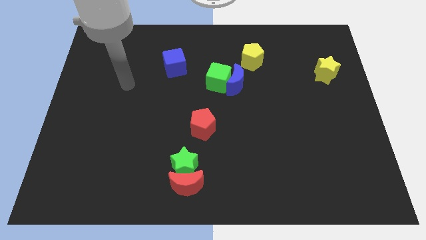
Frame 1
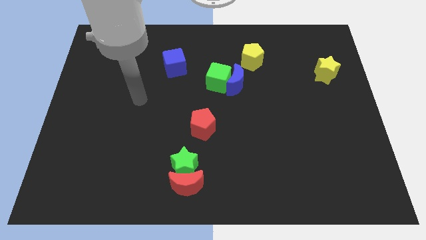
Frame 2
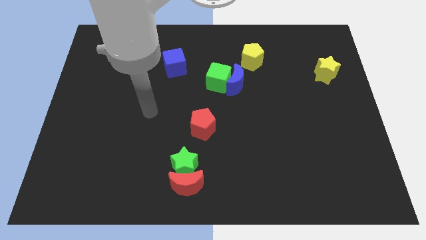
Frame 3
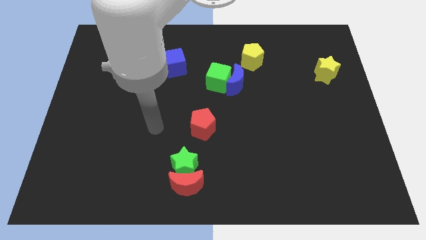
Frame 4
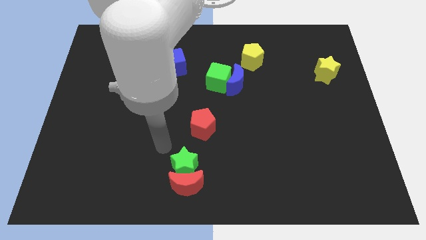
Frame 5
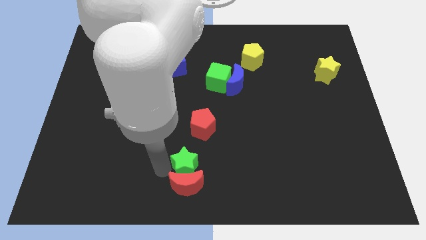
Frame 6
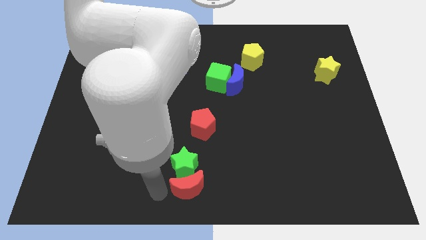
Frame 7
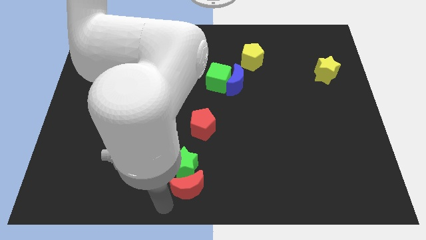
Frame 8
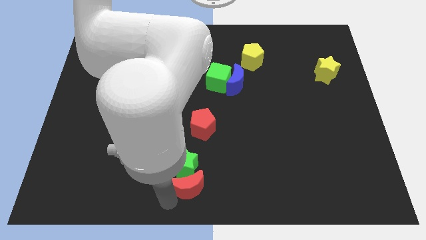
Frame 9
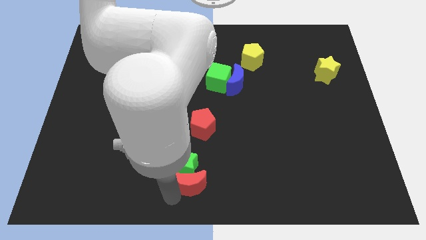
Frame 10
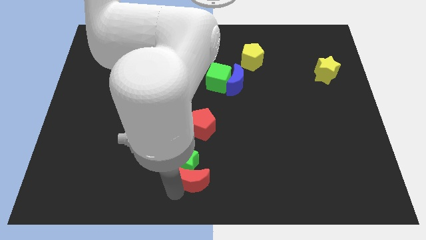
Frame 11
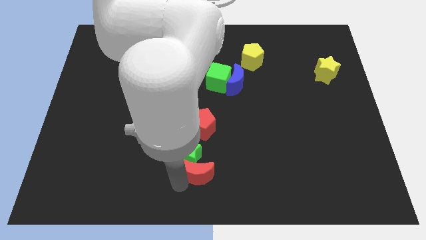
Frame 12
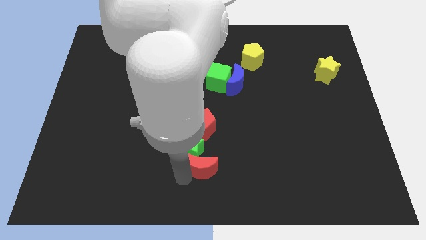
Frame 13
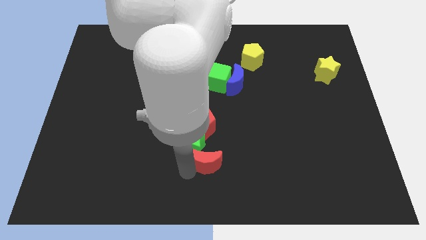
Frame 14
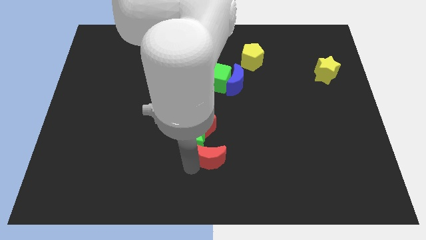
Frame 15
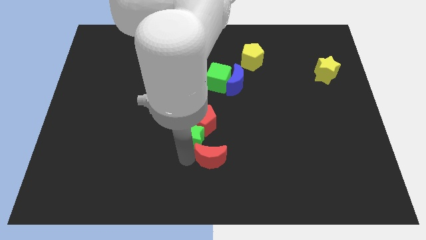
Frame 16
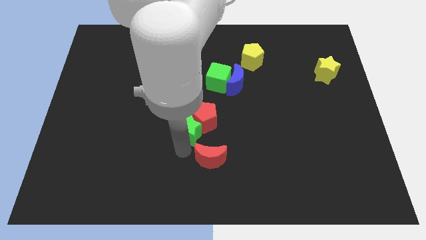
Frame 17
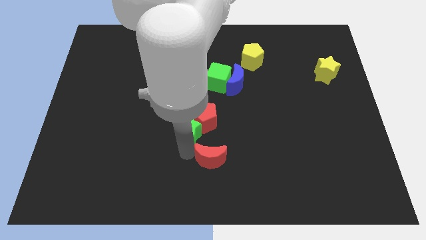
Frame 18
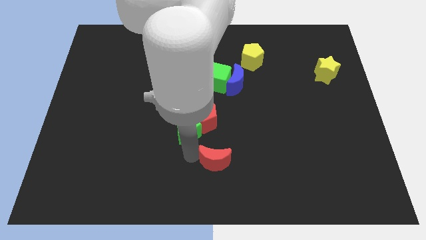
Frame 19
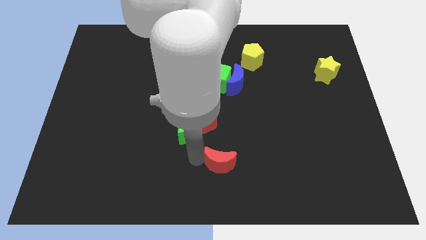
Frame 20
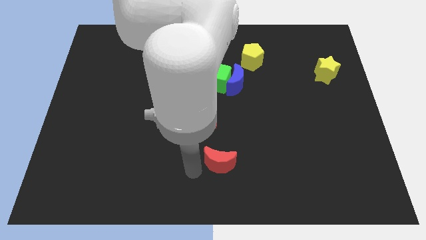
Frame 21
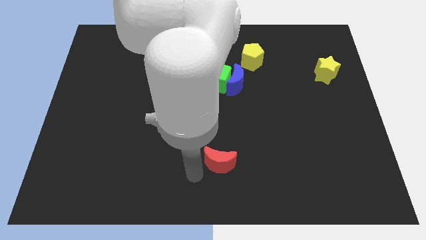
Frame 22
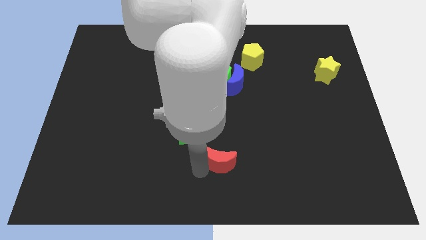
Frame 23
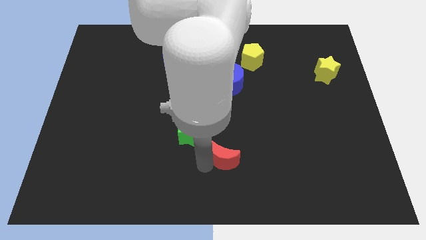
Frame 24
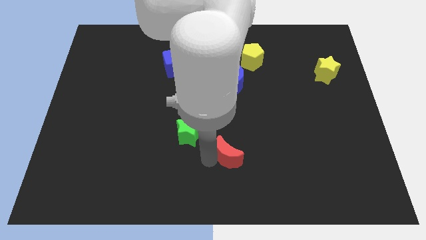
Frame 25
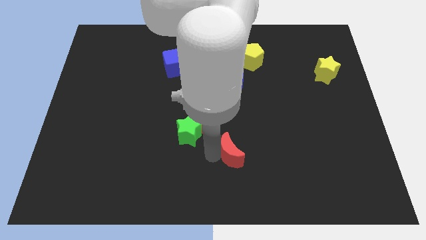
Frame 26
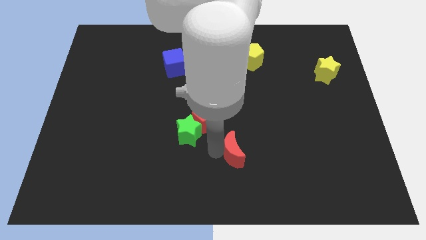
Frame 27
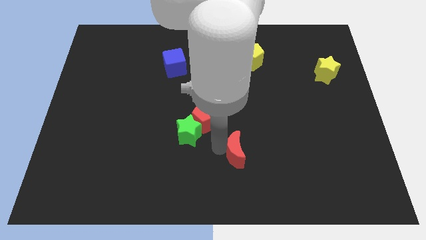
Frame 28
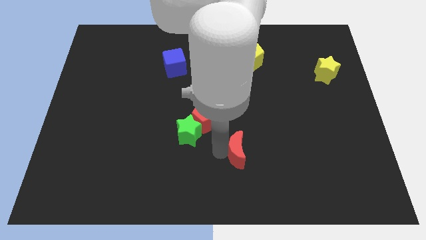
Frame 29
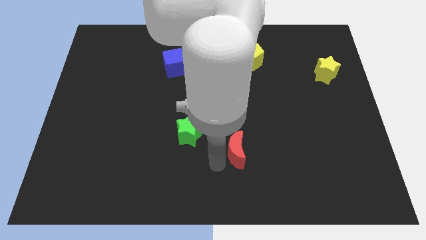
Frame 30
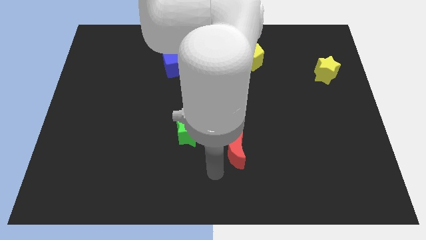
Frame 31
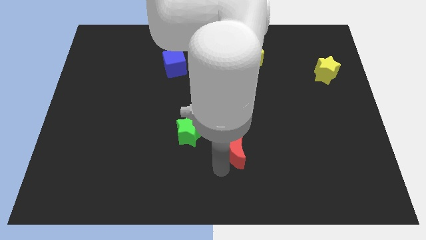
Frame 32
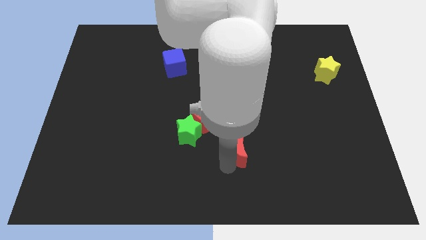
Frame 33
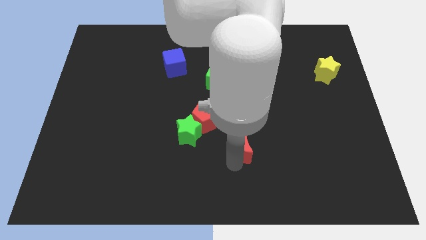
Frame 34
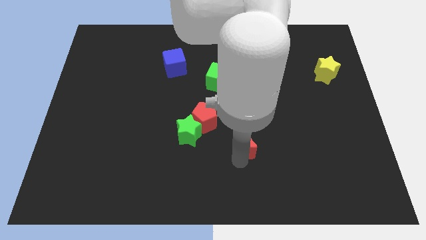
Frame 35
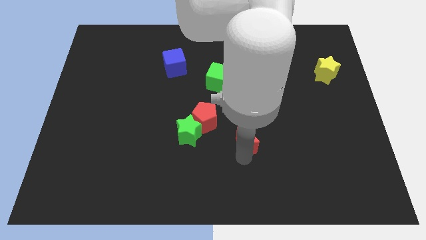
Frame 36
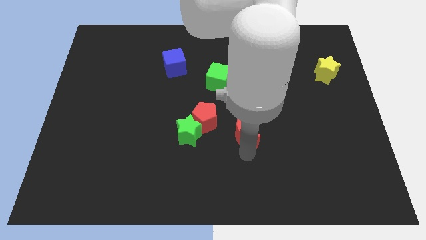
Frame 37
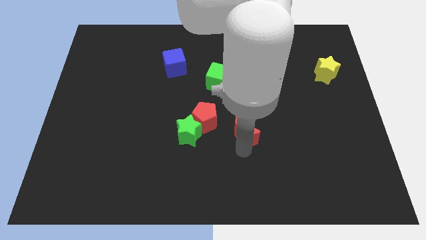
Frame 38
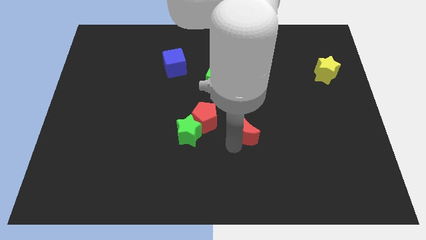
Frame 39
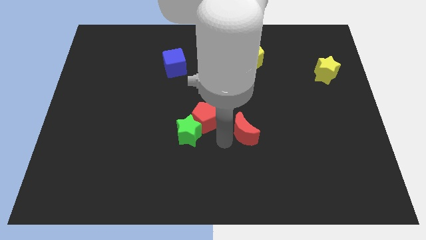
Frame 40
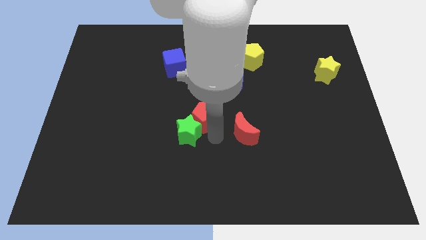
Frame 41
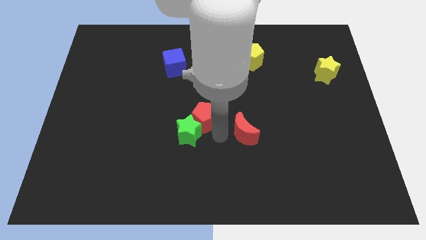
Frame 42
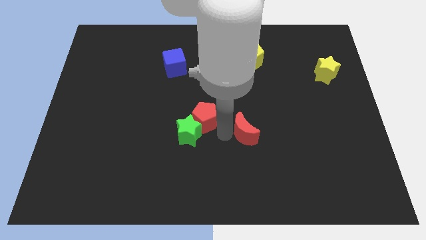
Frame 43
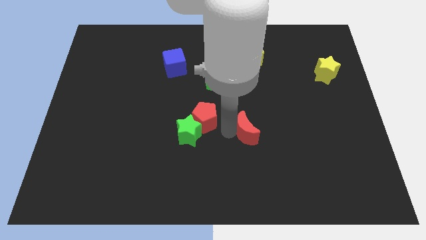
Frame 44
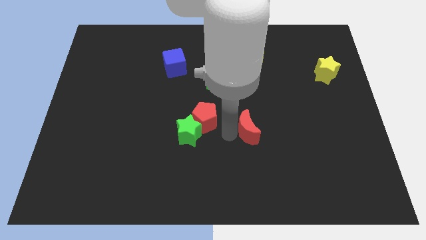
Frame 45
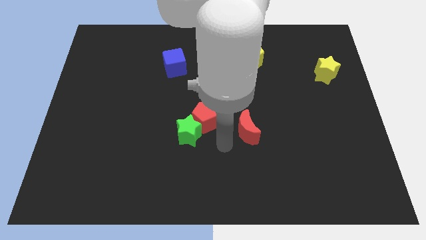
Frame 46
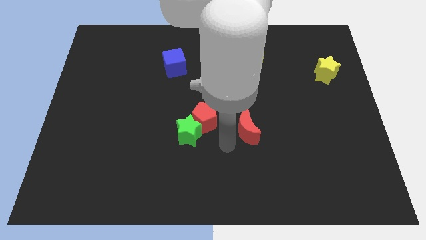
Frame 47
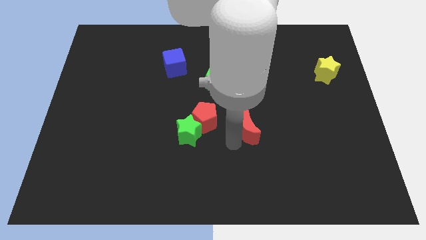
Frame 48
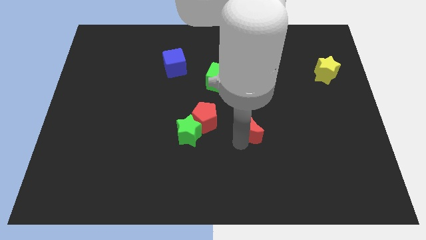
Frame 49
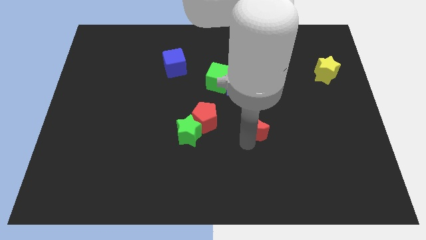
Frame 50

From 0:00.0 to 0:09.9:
move the red moon diagonally upwards and to the right

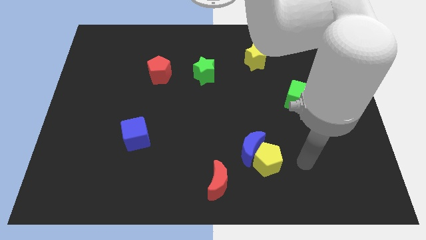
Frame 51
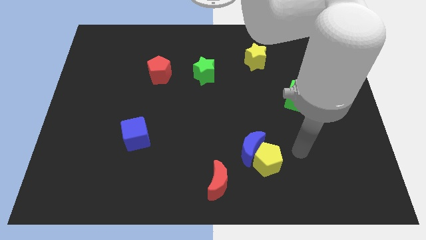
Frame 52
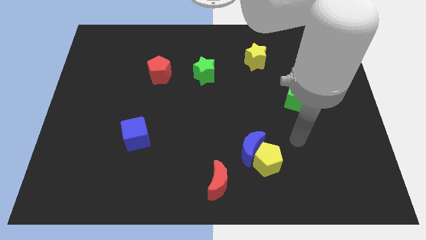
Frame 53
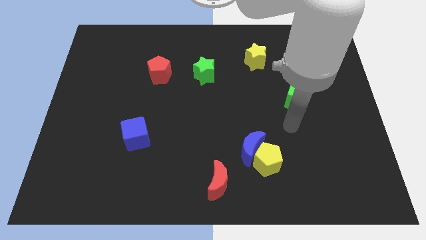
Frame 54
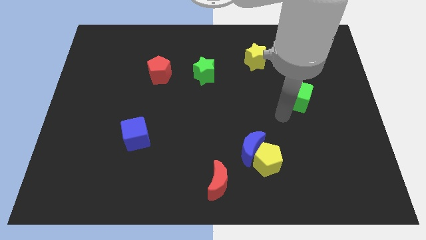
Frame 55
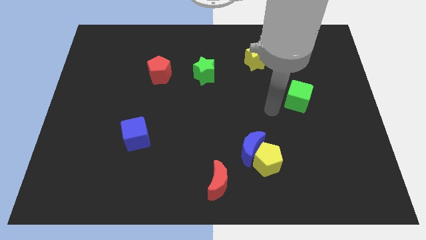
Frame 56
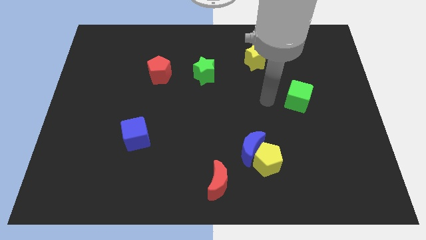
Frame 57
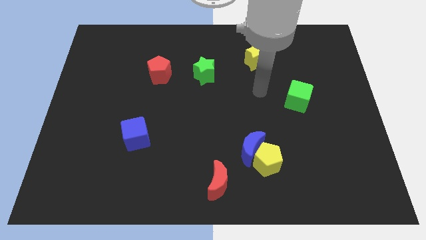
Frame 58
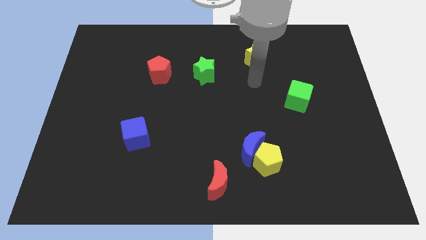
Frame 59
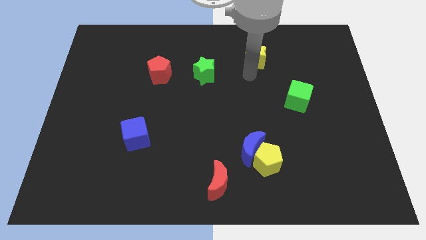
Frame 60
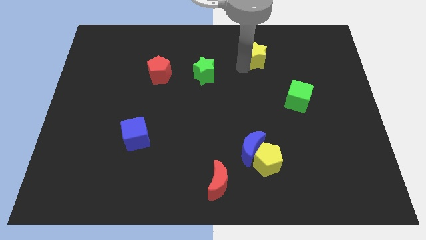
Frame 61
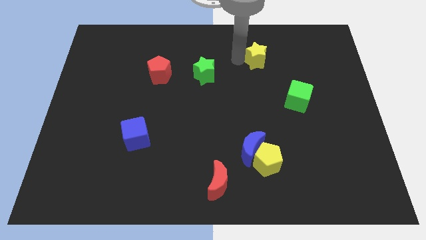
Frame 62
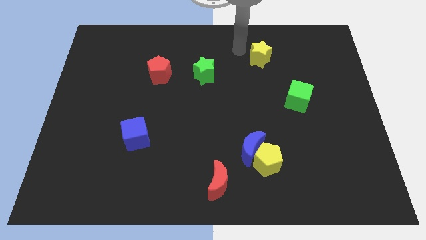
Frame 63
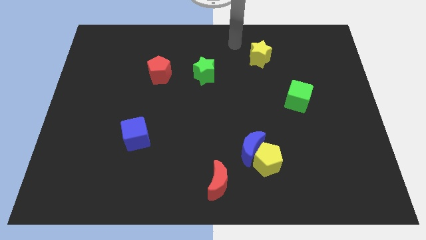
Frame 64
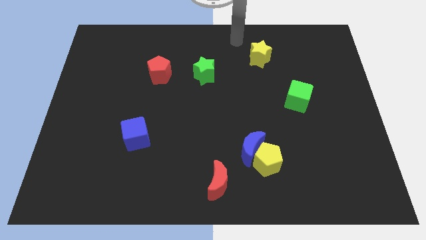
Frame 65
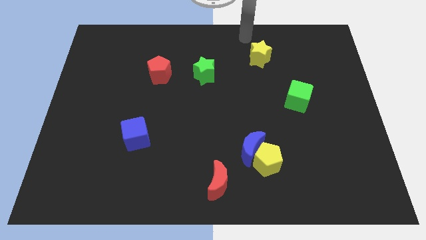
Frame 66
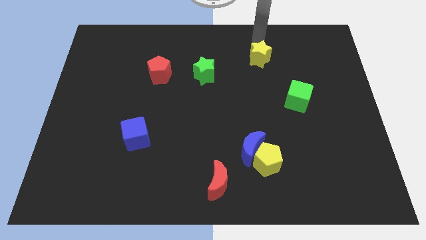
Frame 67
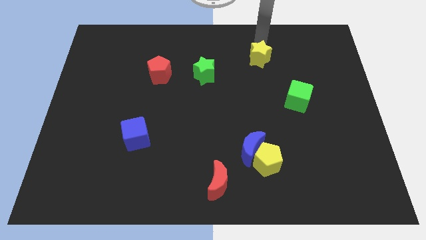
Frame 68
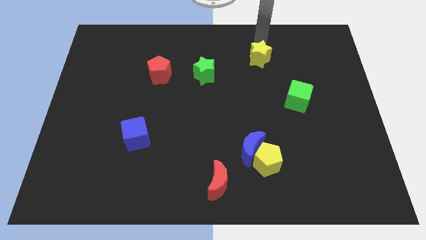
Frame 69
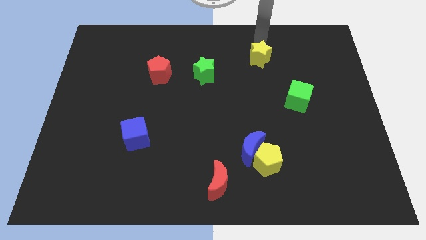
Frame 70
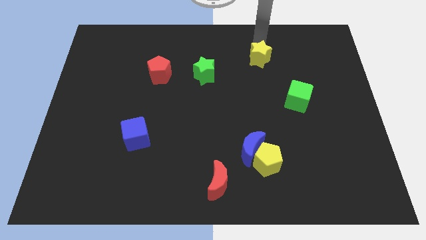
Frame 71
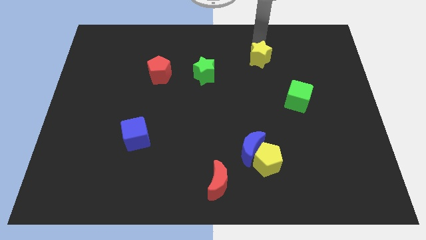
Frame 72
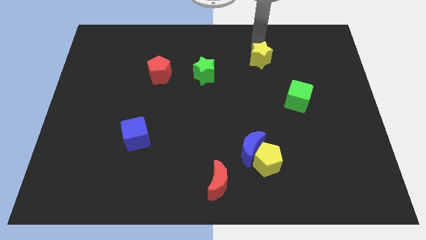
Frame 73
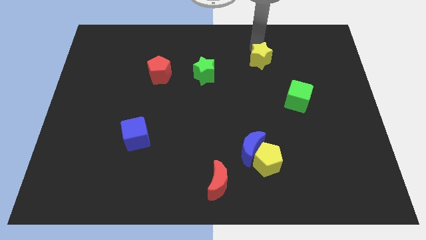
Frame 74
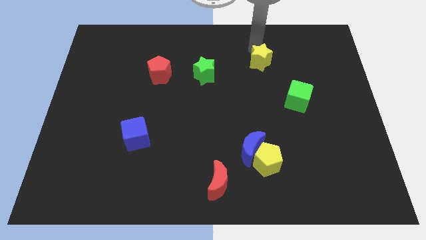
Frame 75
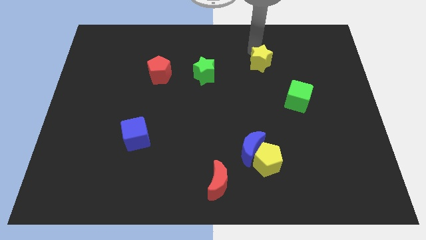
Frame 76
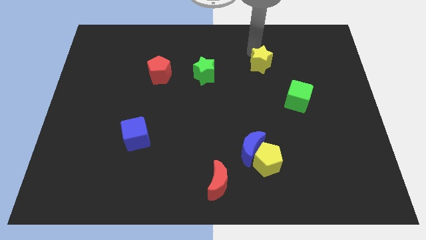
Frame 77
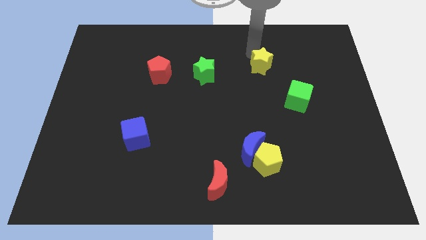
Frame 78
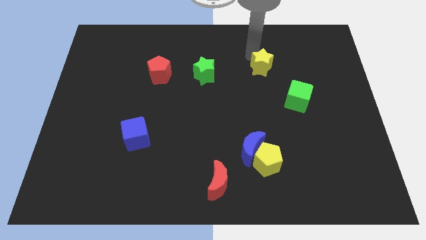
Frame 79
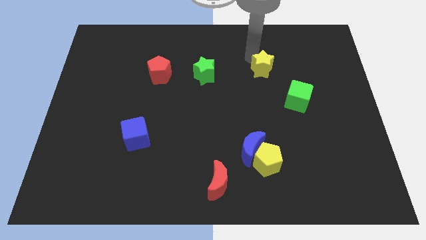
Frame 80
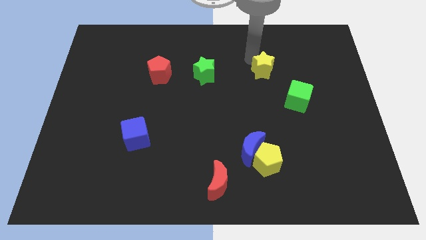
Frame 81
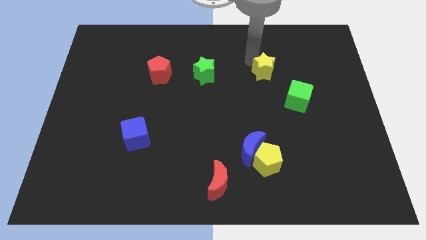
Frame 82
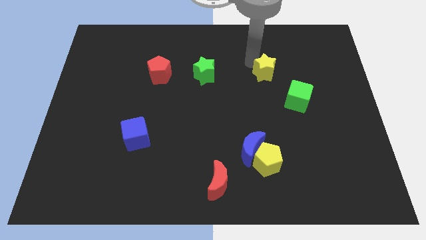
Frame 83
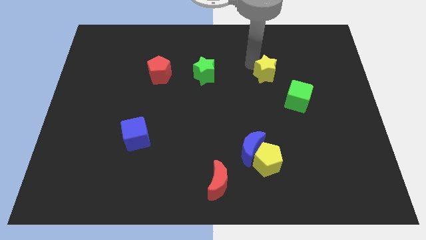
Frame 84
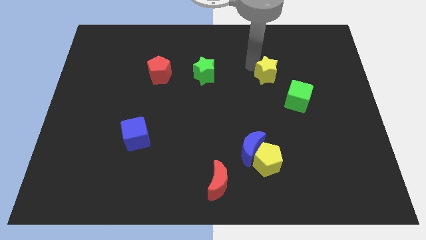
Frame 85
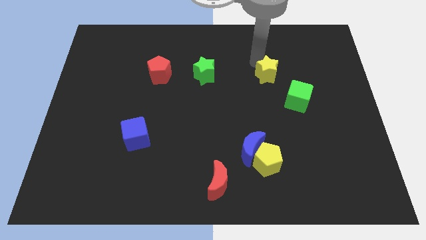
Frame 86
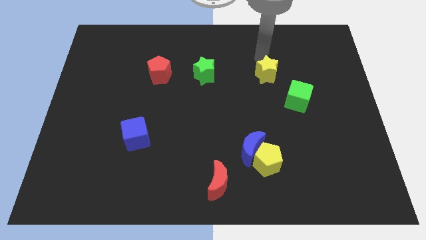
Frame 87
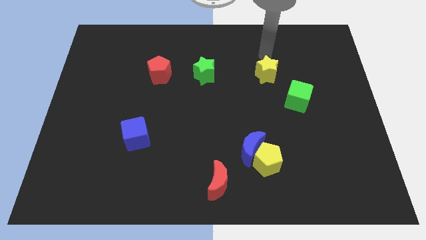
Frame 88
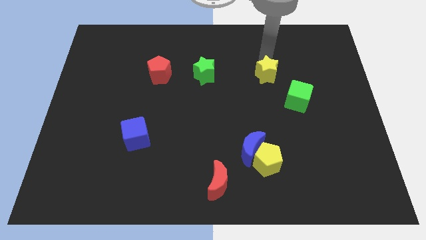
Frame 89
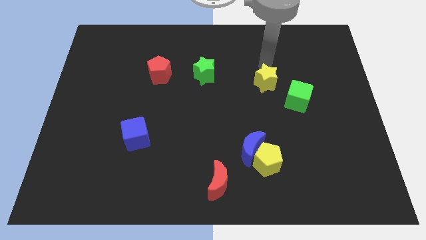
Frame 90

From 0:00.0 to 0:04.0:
push the yellow star a bit down
